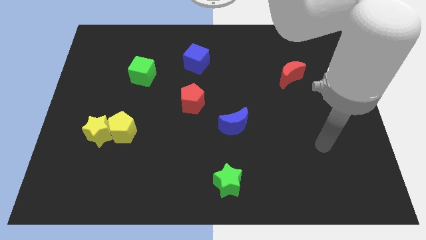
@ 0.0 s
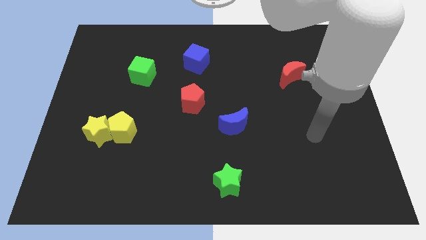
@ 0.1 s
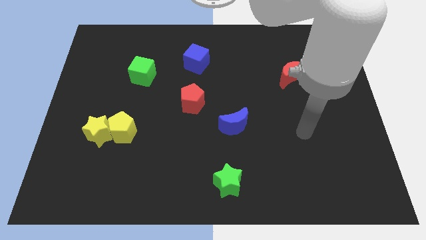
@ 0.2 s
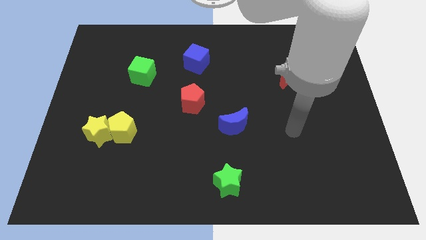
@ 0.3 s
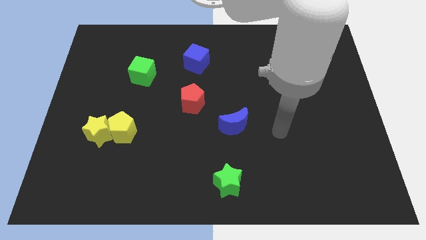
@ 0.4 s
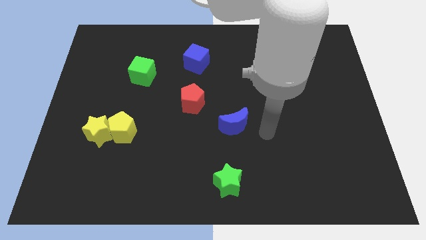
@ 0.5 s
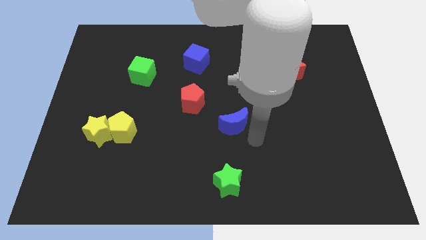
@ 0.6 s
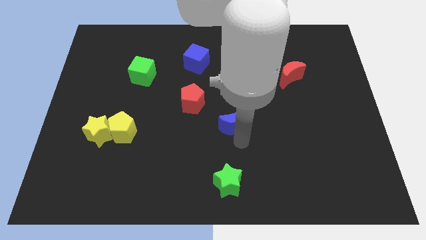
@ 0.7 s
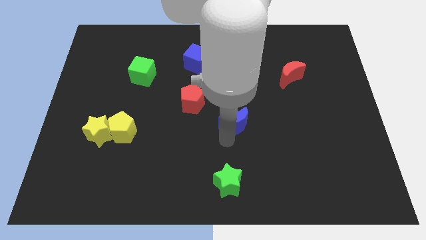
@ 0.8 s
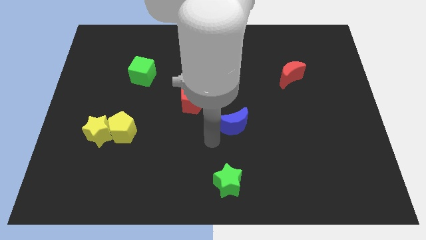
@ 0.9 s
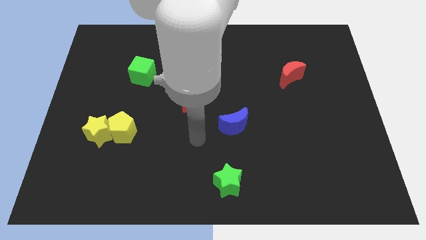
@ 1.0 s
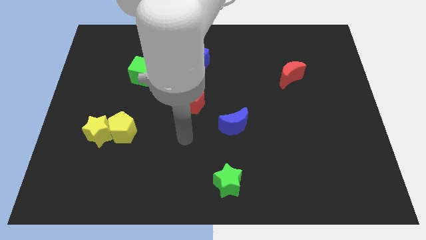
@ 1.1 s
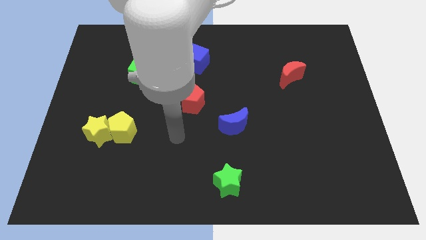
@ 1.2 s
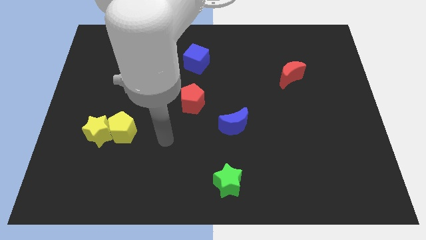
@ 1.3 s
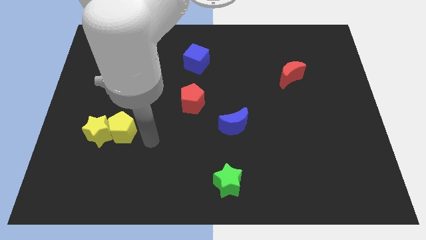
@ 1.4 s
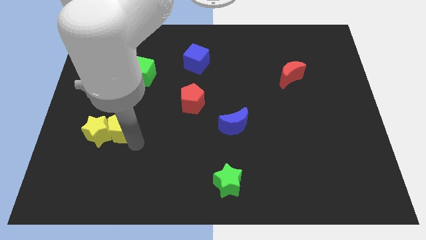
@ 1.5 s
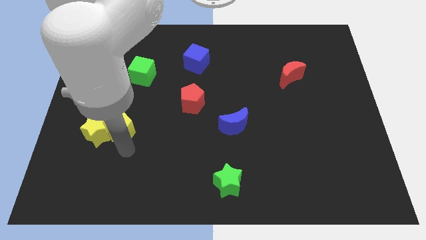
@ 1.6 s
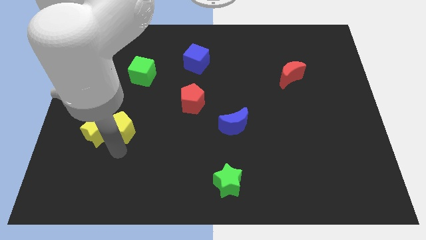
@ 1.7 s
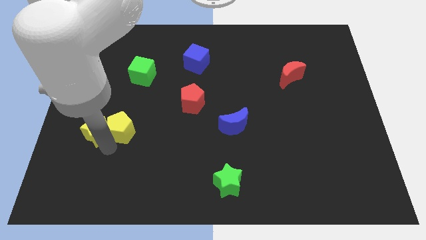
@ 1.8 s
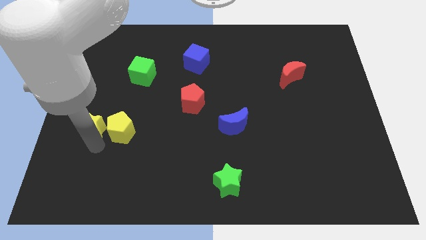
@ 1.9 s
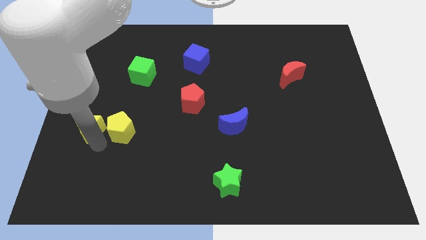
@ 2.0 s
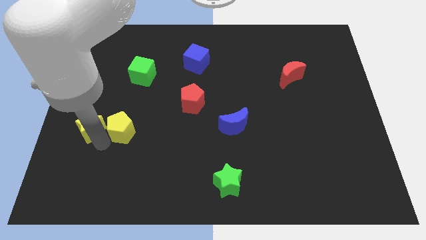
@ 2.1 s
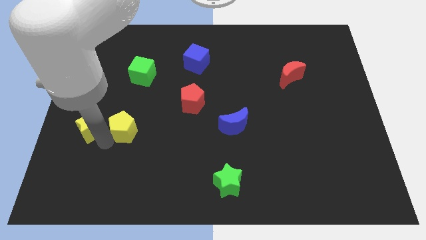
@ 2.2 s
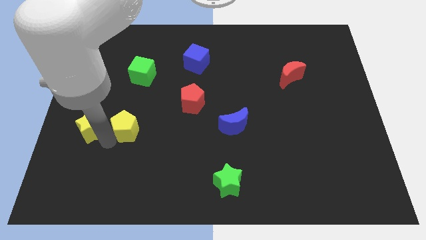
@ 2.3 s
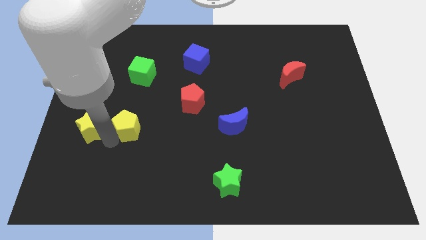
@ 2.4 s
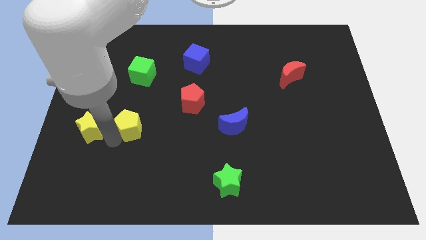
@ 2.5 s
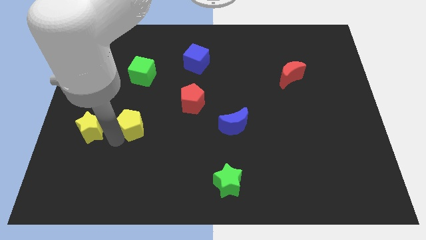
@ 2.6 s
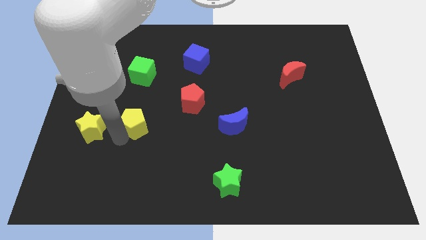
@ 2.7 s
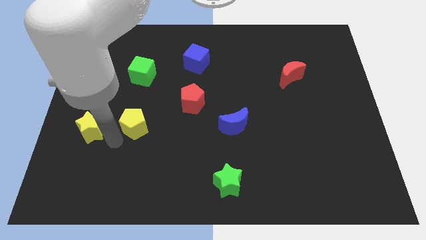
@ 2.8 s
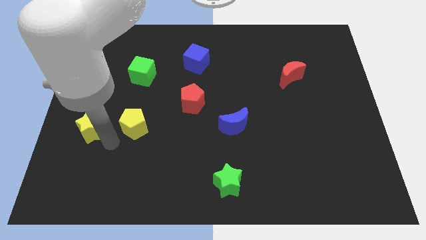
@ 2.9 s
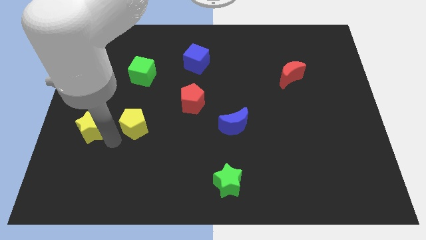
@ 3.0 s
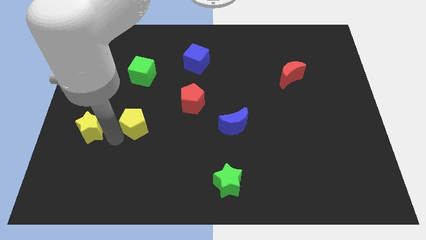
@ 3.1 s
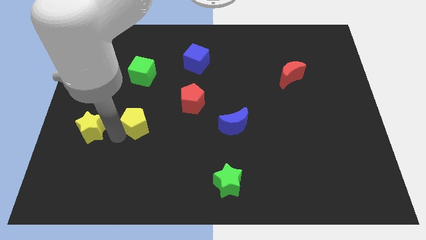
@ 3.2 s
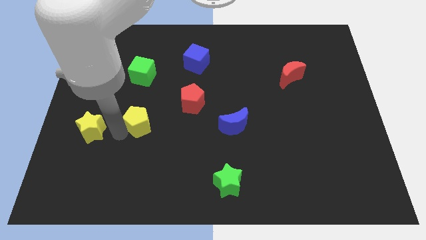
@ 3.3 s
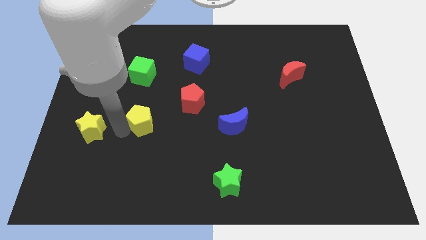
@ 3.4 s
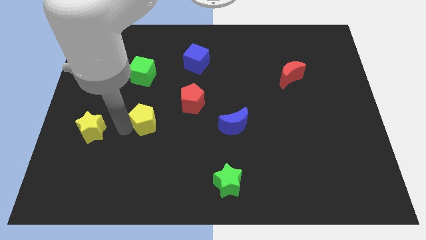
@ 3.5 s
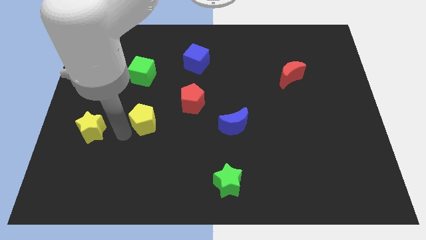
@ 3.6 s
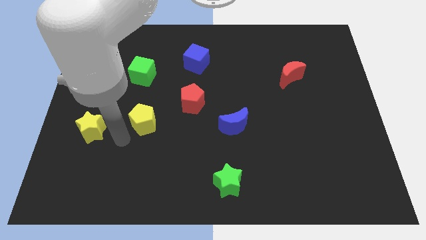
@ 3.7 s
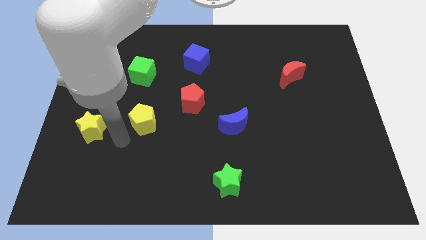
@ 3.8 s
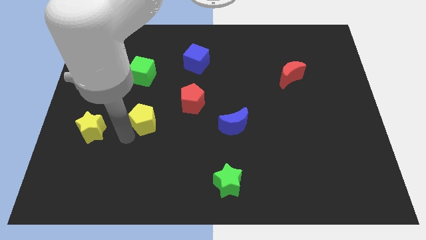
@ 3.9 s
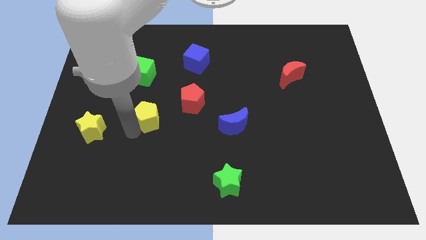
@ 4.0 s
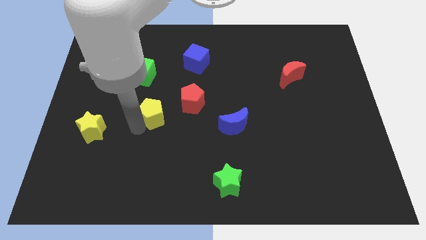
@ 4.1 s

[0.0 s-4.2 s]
slightly push the yellow pentagon up and right diagonally

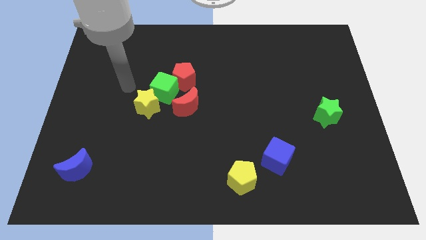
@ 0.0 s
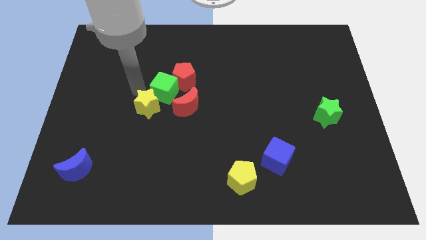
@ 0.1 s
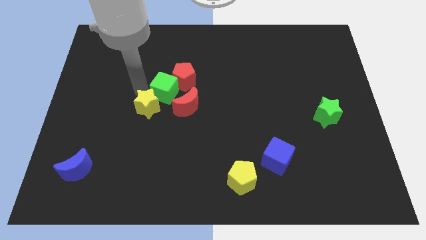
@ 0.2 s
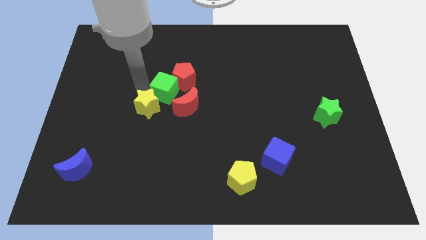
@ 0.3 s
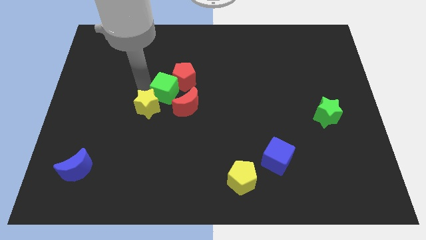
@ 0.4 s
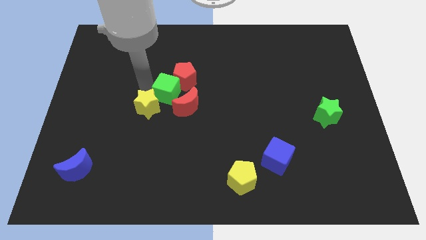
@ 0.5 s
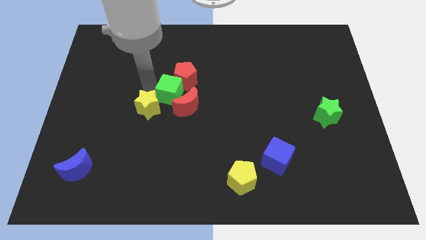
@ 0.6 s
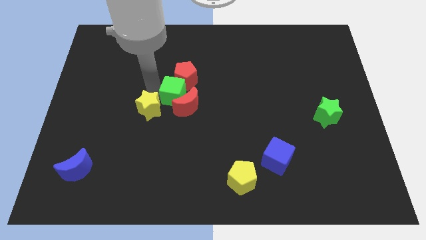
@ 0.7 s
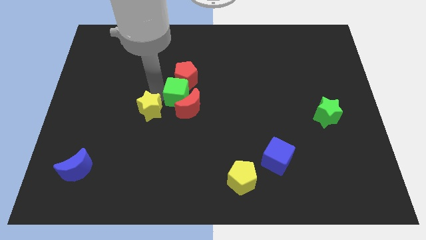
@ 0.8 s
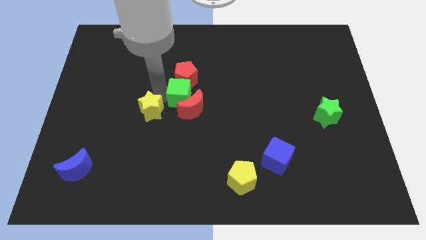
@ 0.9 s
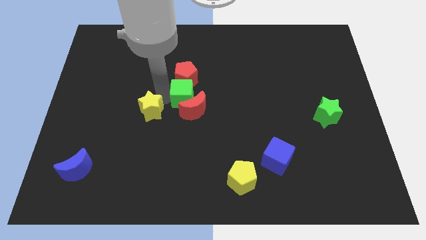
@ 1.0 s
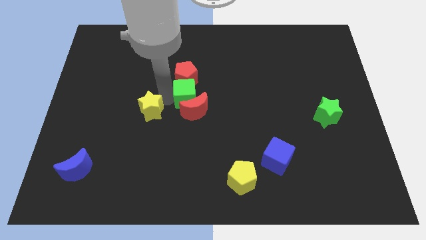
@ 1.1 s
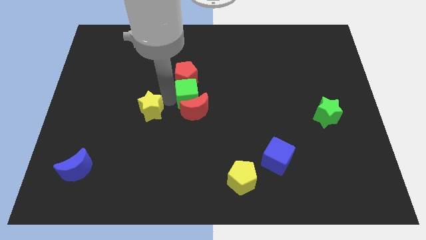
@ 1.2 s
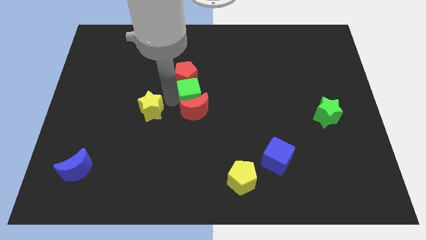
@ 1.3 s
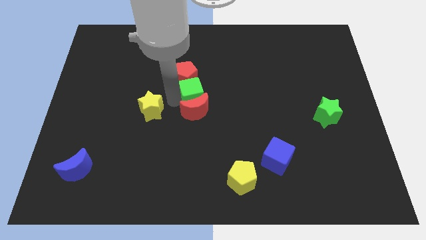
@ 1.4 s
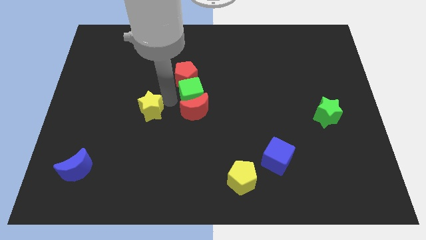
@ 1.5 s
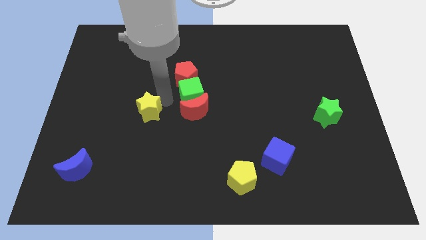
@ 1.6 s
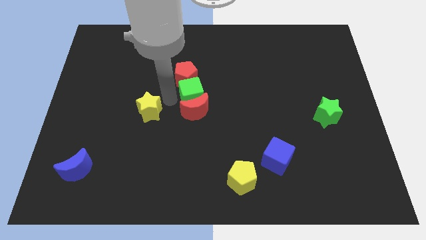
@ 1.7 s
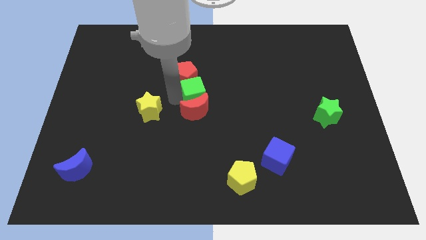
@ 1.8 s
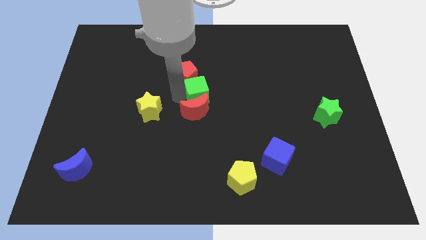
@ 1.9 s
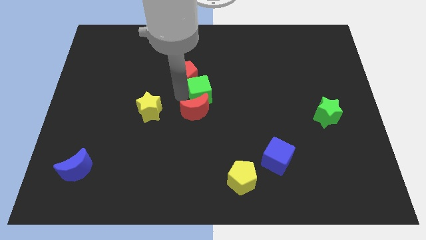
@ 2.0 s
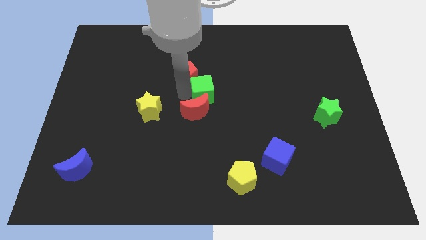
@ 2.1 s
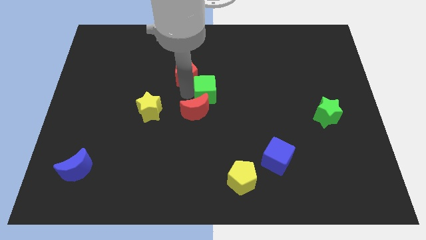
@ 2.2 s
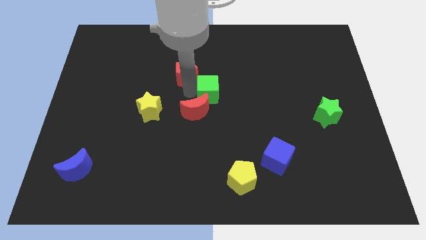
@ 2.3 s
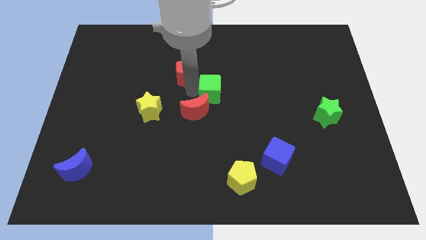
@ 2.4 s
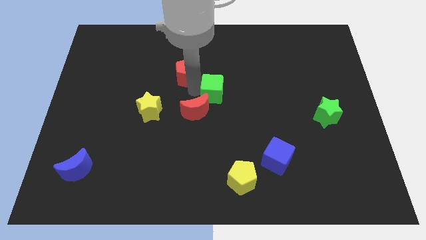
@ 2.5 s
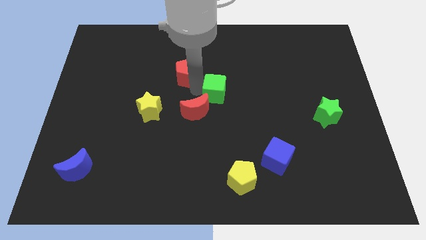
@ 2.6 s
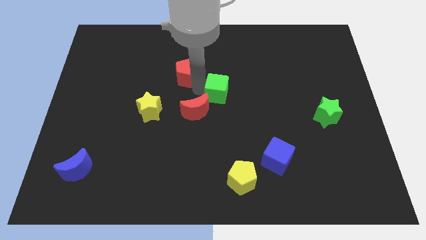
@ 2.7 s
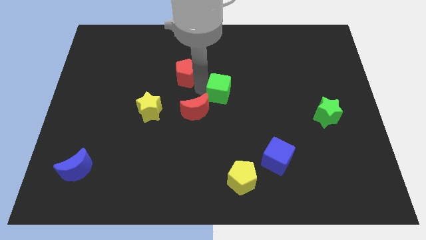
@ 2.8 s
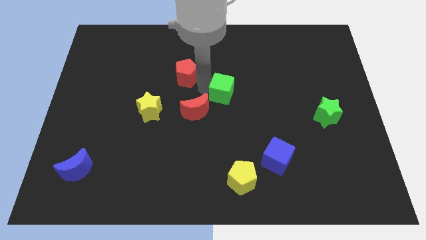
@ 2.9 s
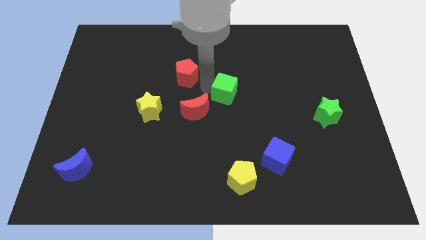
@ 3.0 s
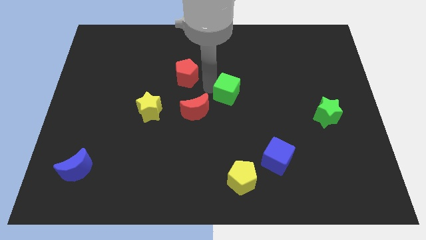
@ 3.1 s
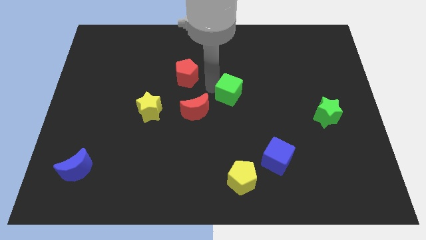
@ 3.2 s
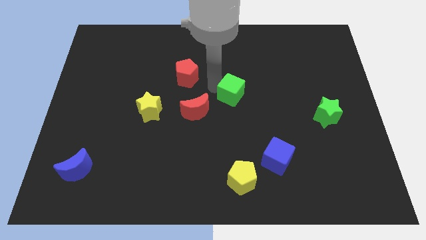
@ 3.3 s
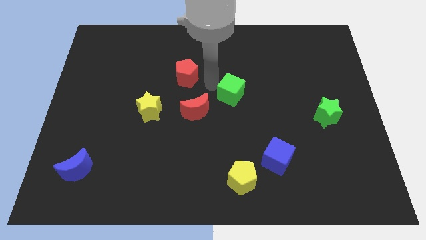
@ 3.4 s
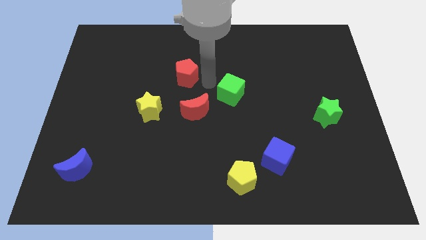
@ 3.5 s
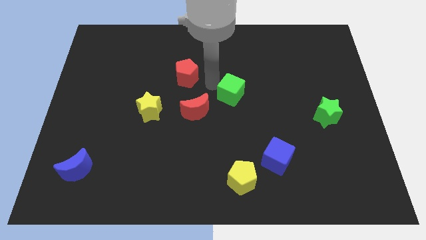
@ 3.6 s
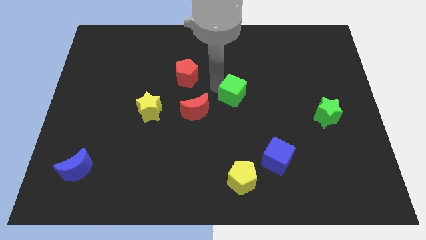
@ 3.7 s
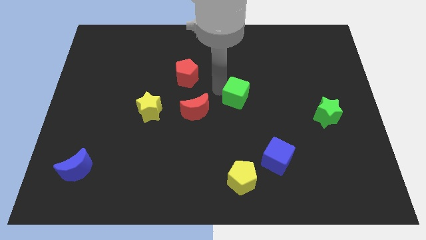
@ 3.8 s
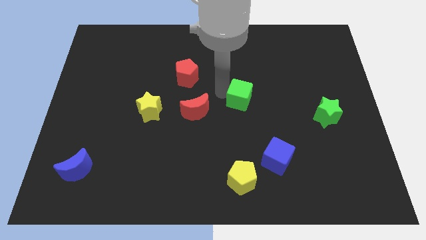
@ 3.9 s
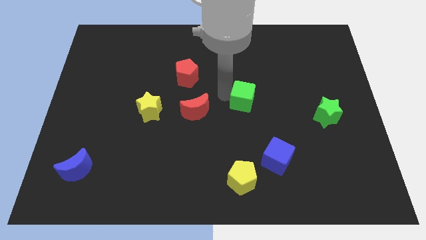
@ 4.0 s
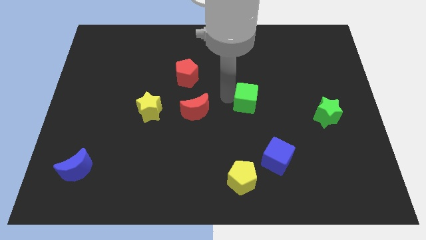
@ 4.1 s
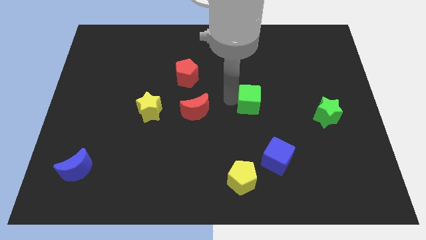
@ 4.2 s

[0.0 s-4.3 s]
slide the green cube right
